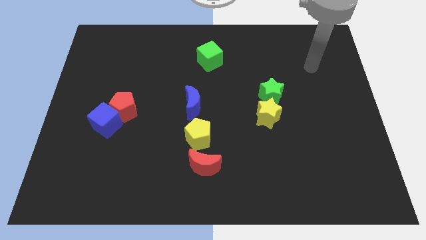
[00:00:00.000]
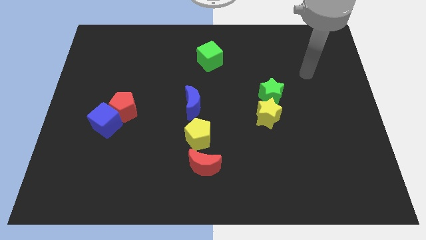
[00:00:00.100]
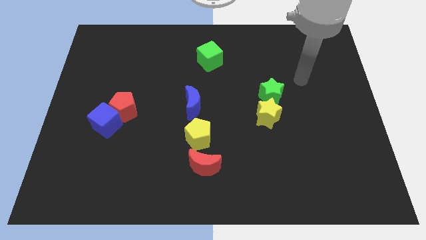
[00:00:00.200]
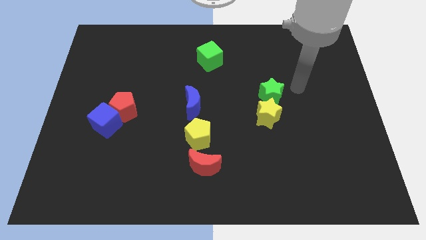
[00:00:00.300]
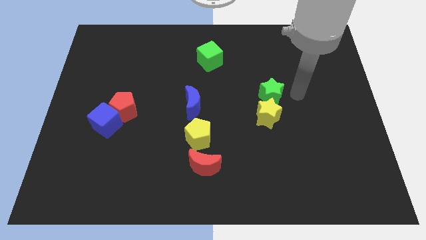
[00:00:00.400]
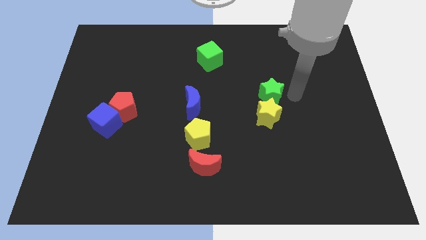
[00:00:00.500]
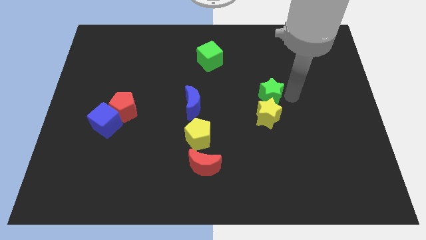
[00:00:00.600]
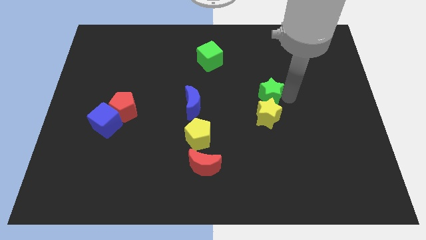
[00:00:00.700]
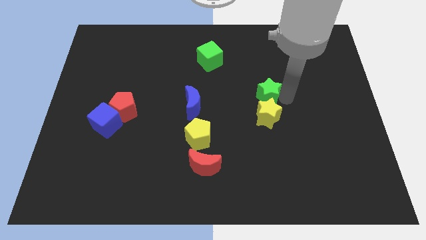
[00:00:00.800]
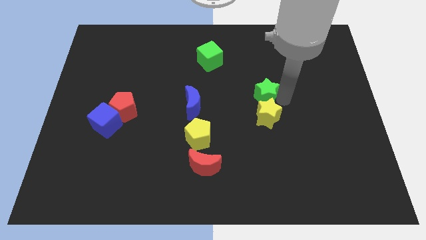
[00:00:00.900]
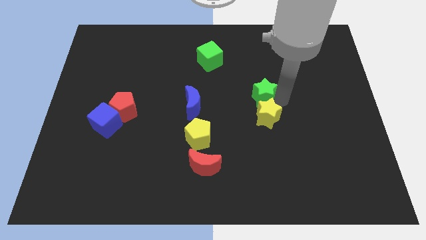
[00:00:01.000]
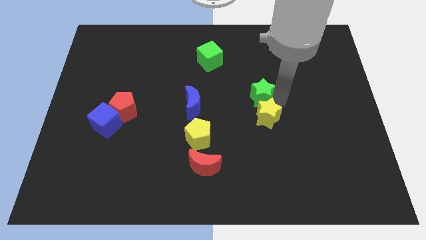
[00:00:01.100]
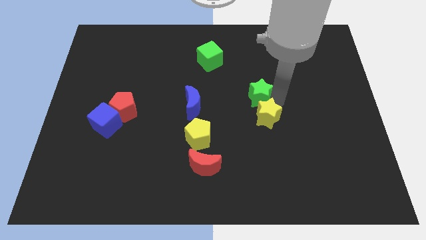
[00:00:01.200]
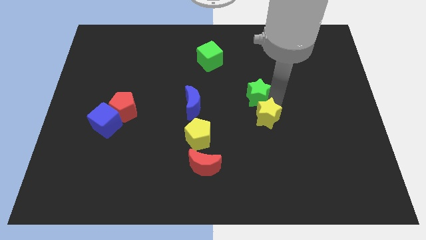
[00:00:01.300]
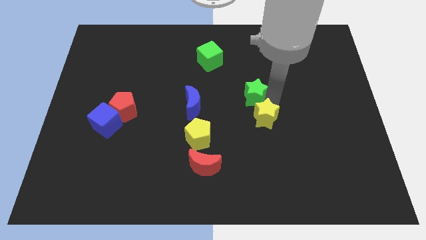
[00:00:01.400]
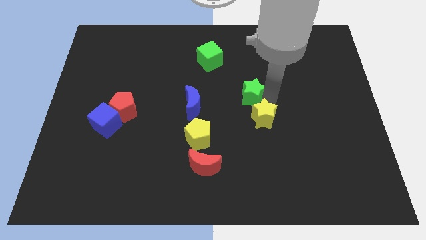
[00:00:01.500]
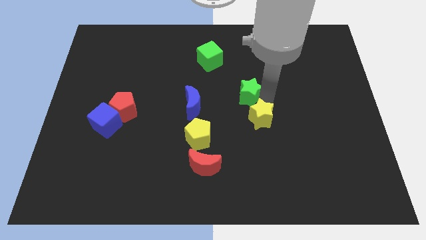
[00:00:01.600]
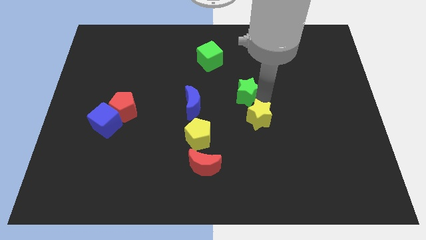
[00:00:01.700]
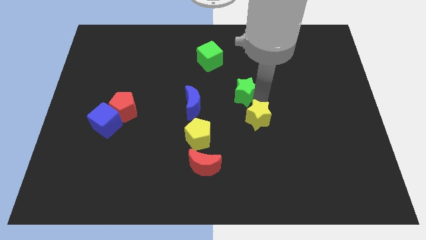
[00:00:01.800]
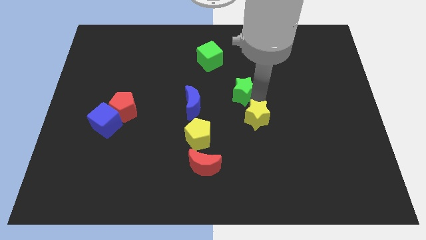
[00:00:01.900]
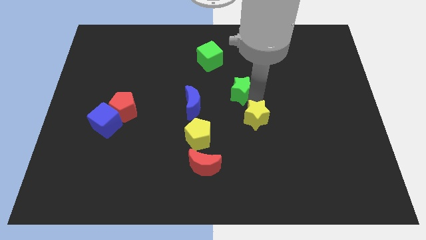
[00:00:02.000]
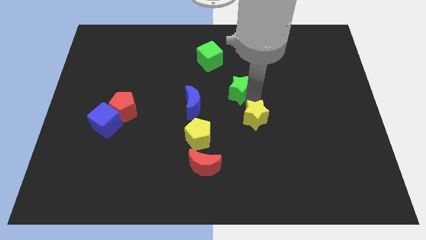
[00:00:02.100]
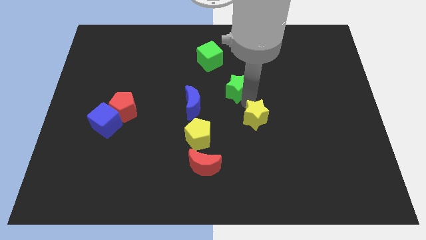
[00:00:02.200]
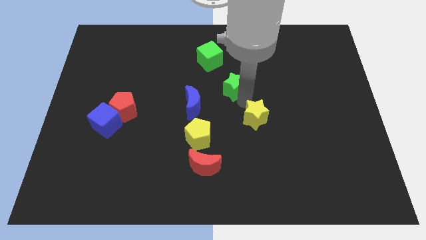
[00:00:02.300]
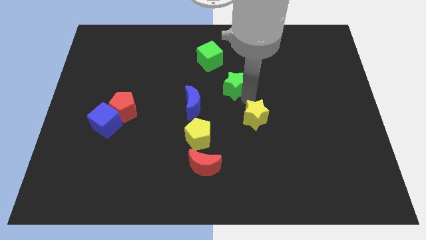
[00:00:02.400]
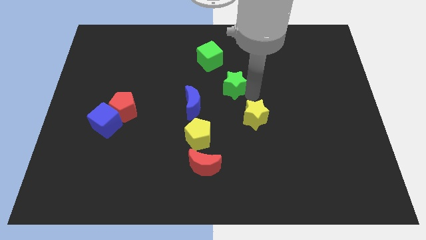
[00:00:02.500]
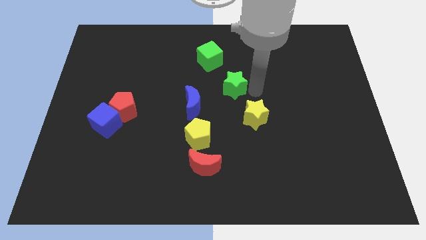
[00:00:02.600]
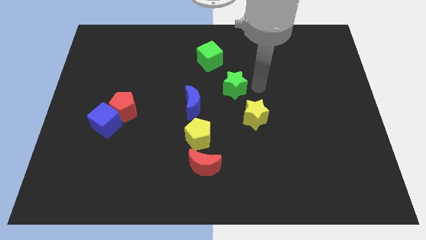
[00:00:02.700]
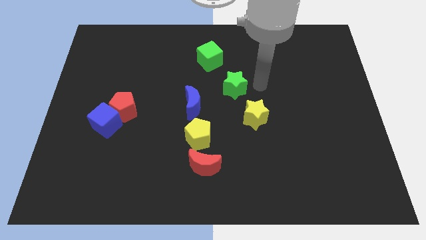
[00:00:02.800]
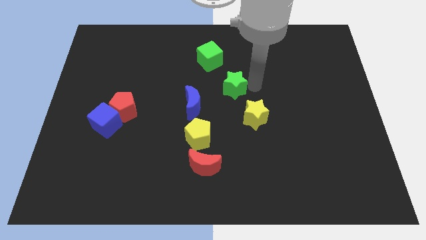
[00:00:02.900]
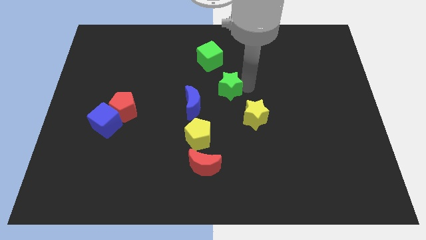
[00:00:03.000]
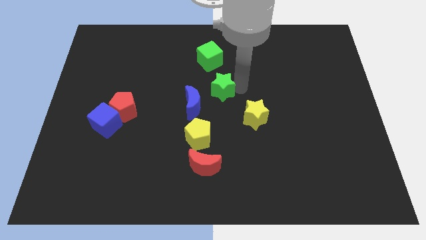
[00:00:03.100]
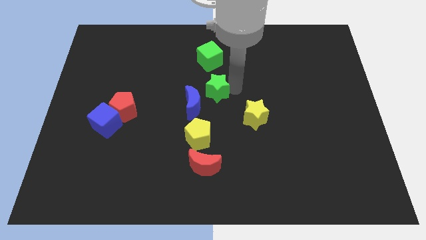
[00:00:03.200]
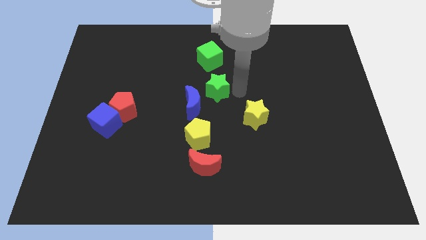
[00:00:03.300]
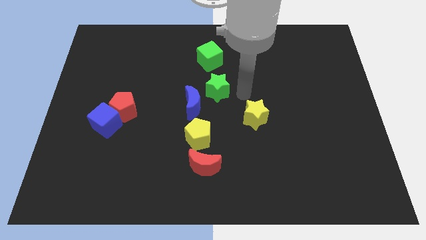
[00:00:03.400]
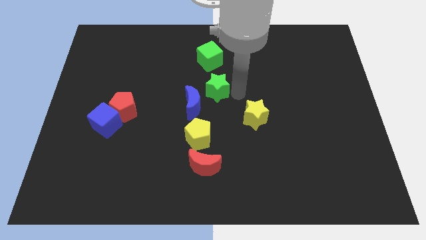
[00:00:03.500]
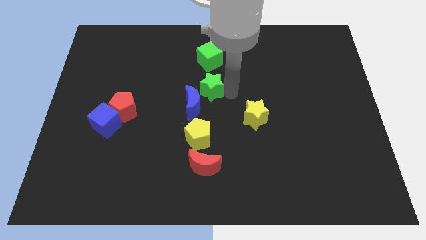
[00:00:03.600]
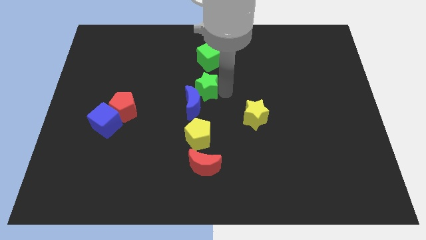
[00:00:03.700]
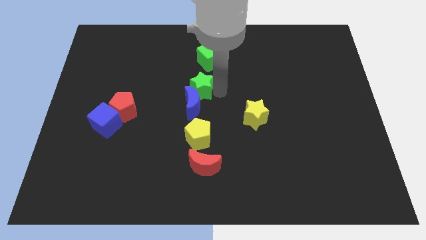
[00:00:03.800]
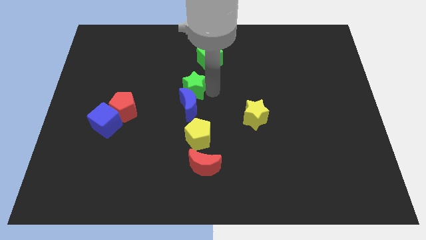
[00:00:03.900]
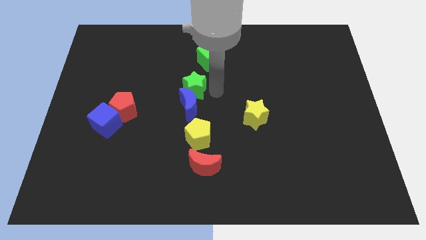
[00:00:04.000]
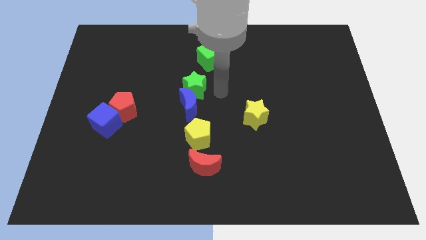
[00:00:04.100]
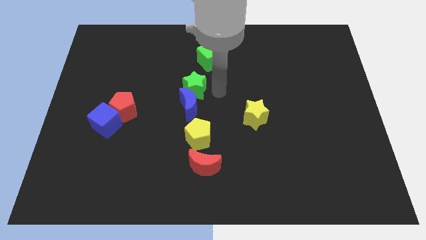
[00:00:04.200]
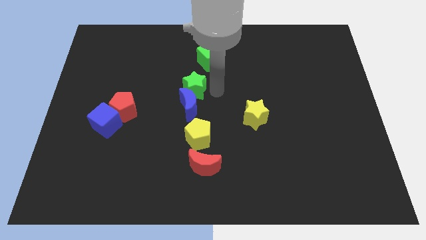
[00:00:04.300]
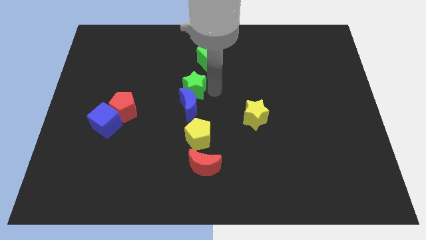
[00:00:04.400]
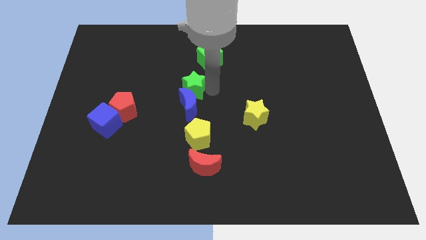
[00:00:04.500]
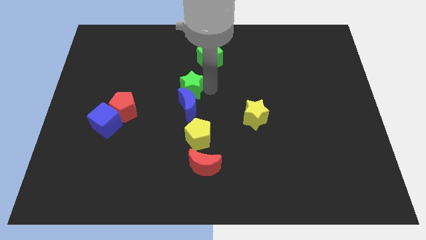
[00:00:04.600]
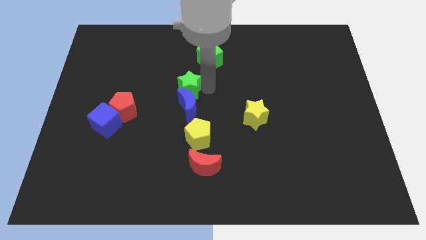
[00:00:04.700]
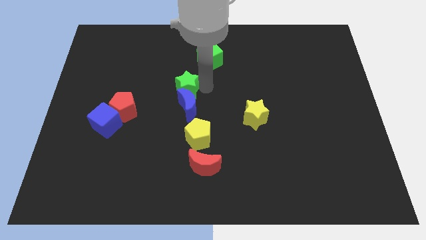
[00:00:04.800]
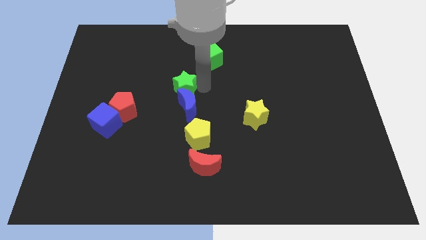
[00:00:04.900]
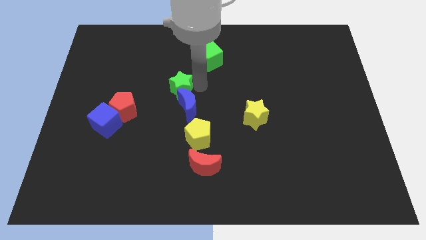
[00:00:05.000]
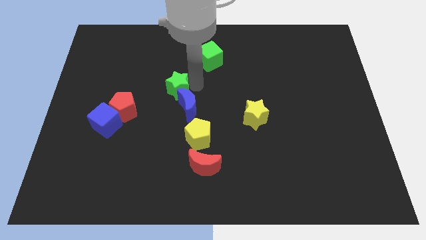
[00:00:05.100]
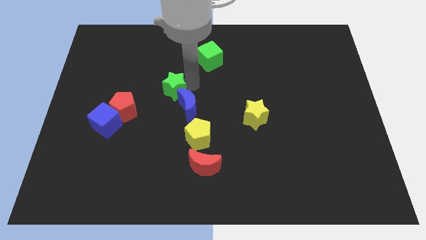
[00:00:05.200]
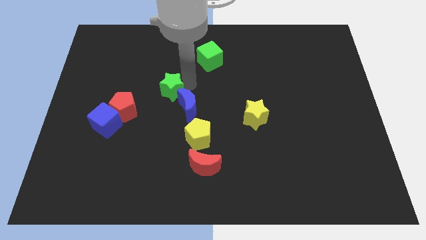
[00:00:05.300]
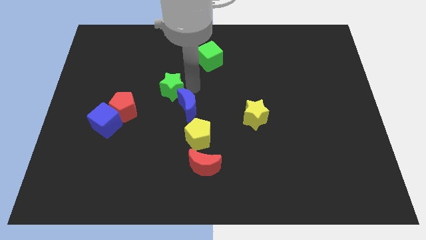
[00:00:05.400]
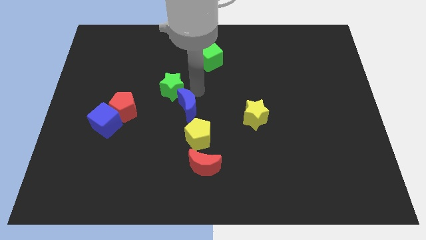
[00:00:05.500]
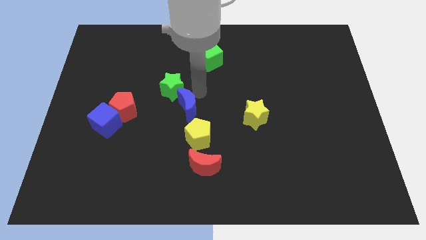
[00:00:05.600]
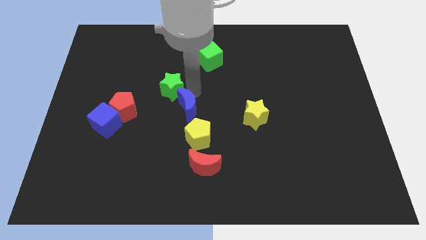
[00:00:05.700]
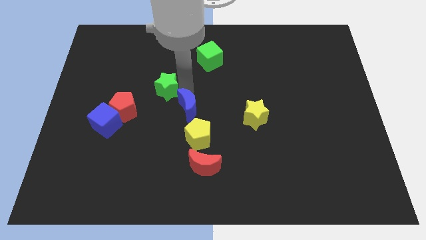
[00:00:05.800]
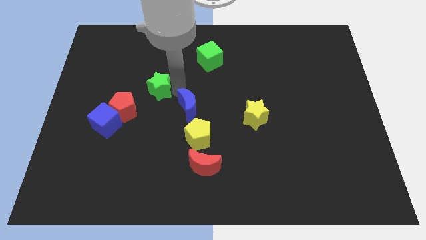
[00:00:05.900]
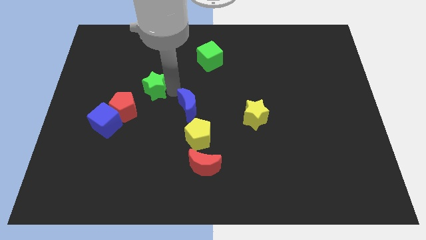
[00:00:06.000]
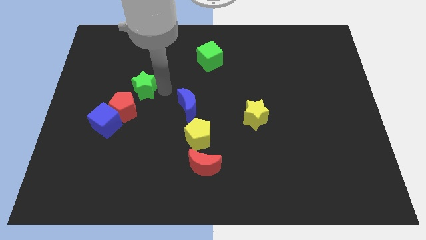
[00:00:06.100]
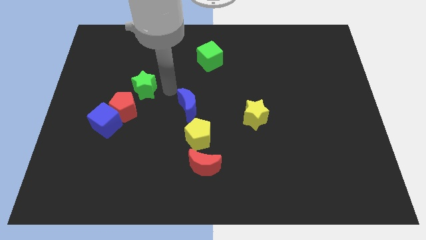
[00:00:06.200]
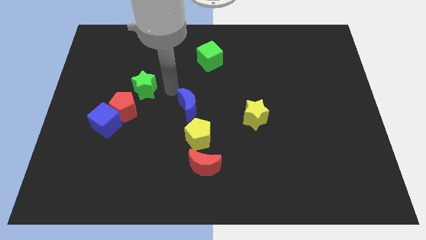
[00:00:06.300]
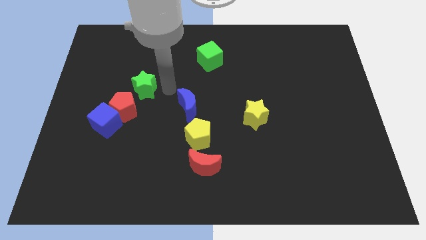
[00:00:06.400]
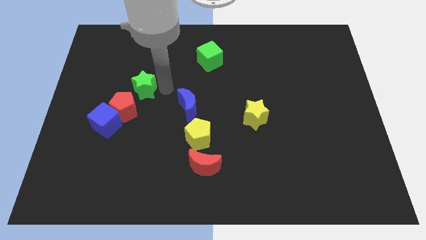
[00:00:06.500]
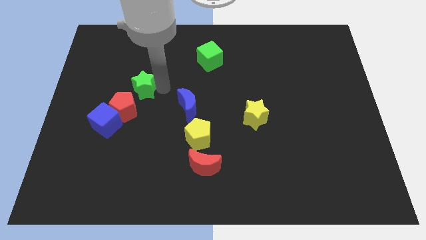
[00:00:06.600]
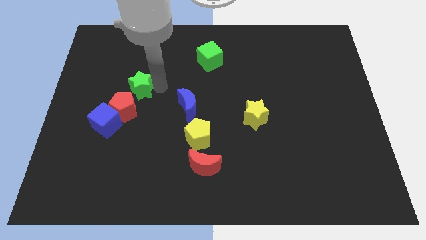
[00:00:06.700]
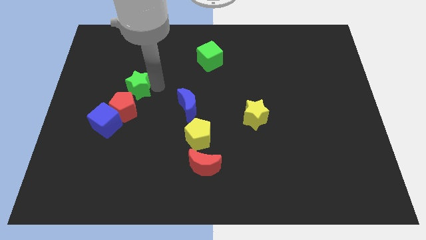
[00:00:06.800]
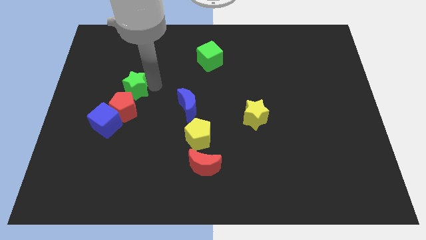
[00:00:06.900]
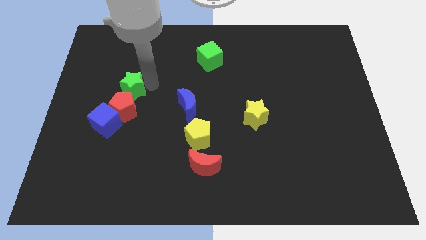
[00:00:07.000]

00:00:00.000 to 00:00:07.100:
move the green star to the top of the blue cube

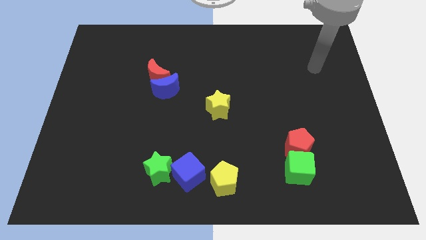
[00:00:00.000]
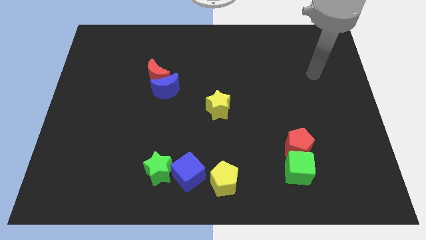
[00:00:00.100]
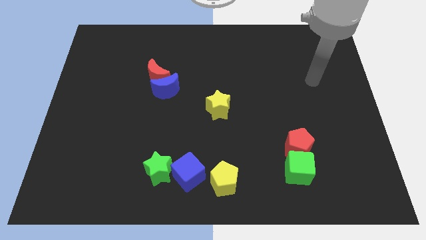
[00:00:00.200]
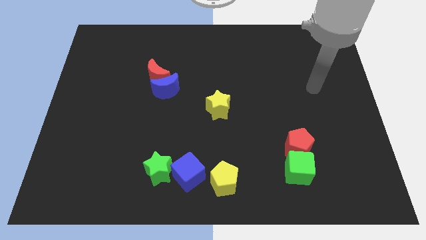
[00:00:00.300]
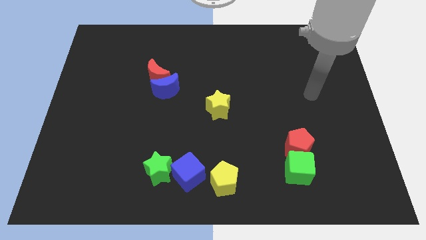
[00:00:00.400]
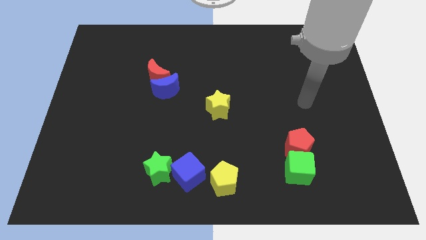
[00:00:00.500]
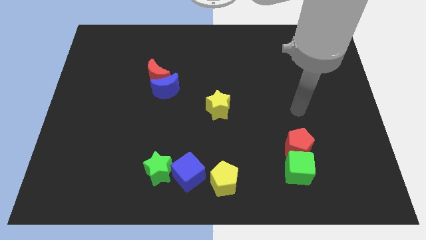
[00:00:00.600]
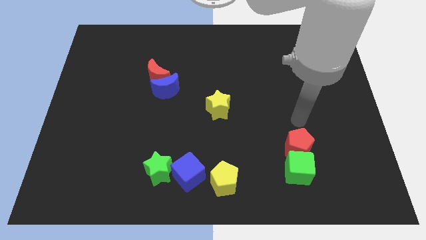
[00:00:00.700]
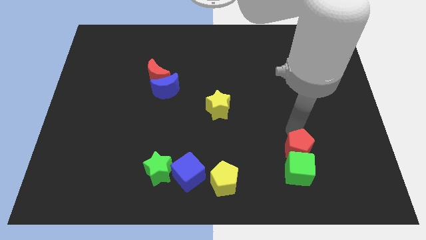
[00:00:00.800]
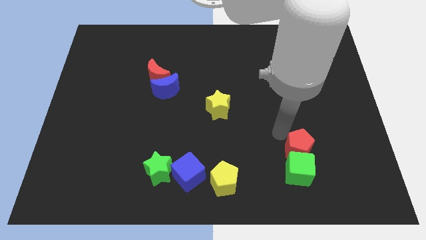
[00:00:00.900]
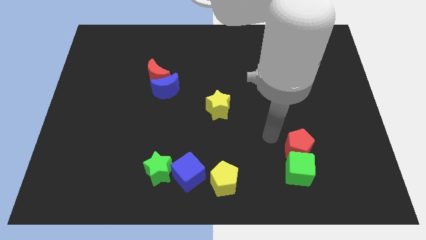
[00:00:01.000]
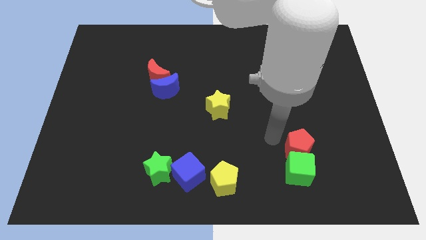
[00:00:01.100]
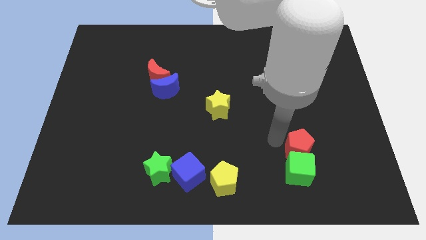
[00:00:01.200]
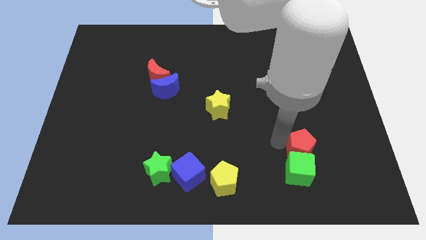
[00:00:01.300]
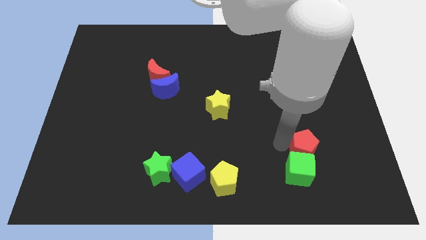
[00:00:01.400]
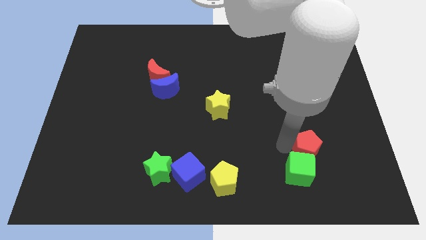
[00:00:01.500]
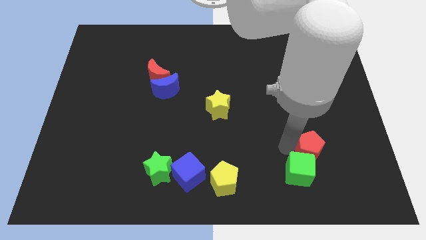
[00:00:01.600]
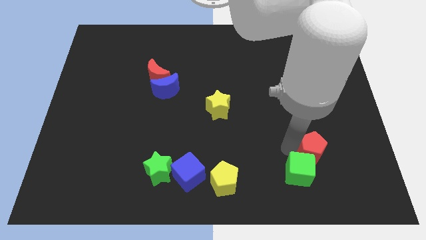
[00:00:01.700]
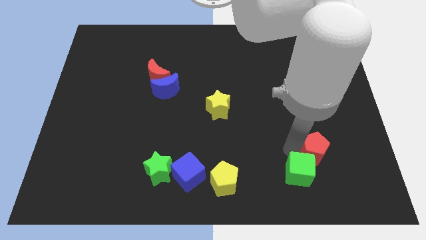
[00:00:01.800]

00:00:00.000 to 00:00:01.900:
push the red pentagon just right of the green cube
